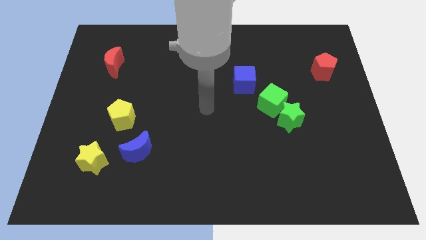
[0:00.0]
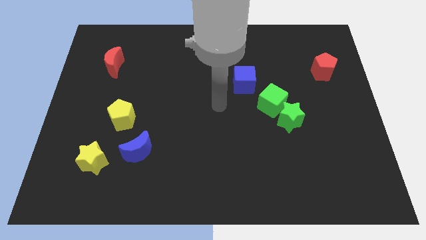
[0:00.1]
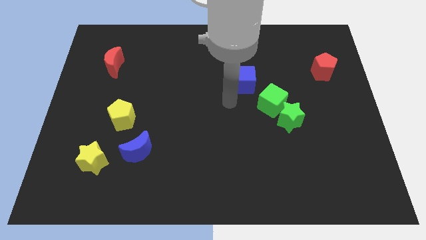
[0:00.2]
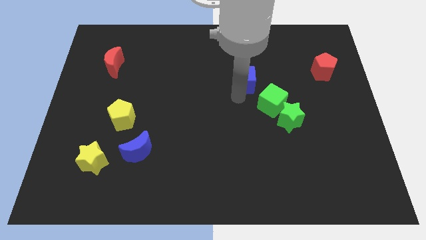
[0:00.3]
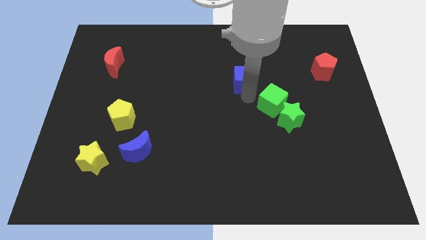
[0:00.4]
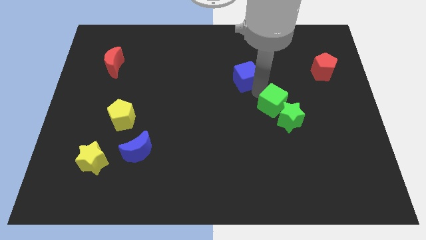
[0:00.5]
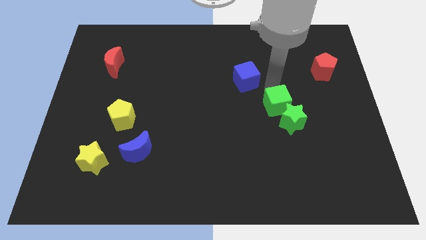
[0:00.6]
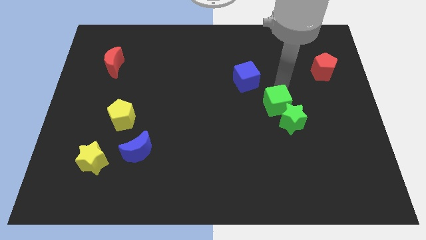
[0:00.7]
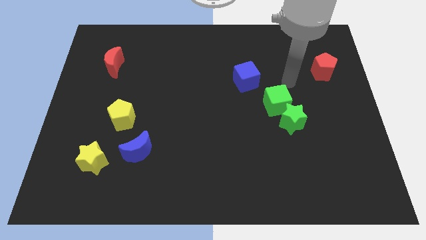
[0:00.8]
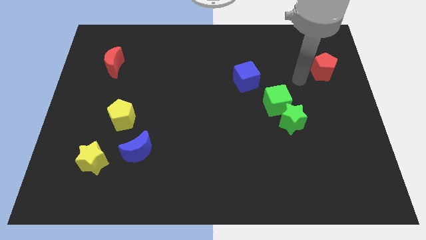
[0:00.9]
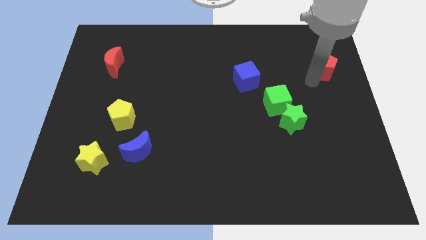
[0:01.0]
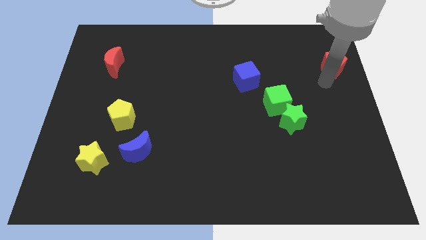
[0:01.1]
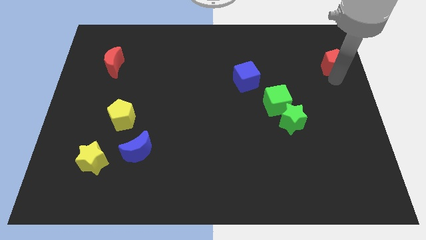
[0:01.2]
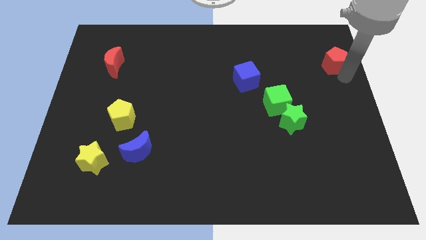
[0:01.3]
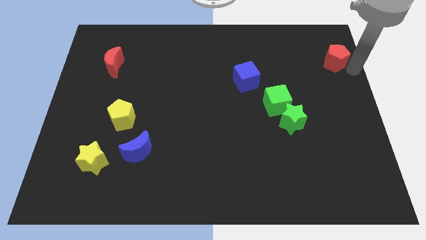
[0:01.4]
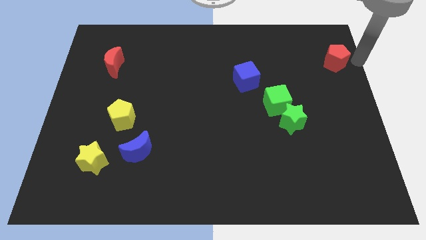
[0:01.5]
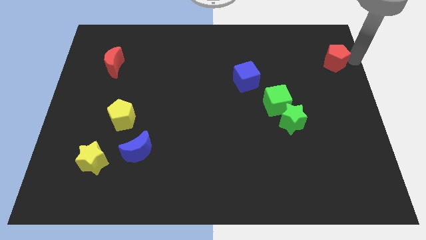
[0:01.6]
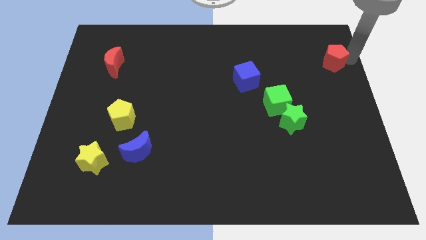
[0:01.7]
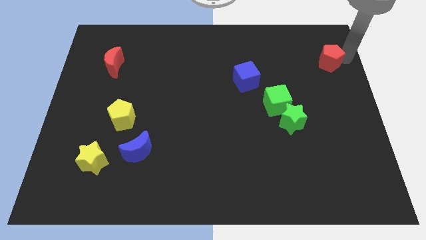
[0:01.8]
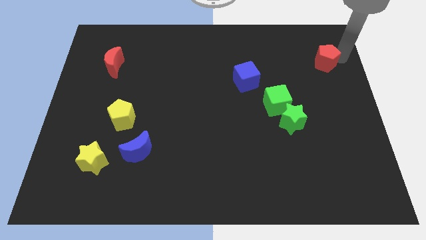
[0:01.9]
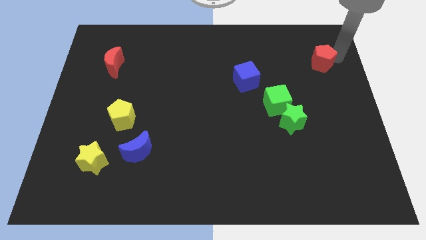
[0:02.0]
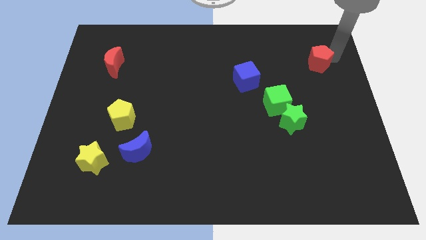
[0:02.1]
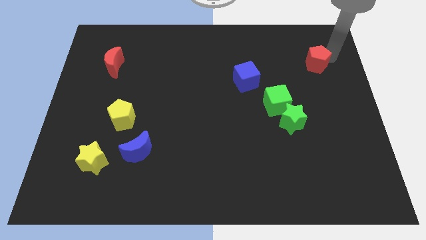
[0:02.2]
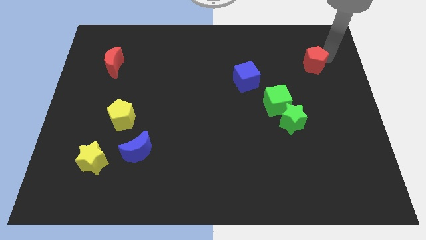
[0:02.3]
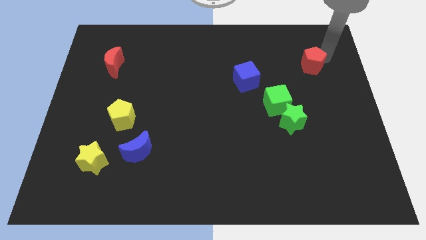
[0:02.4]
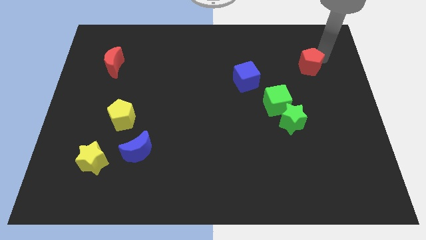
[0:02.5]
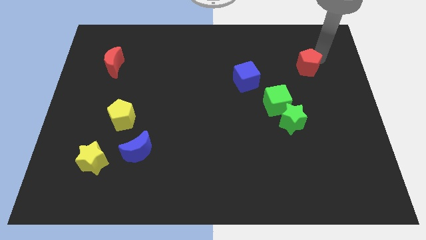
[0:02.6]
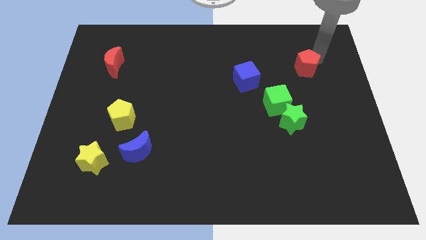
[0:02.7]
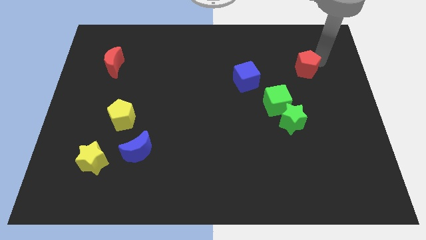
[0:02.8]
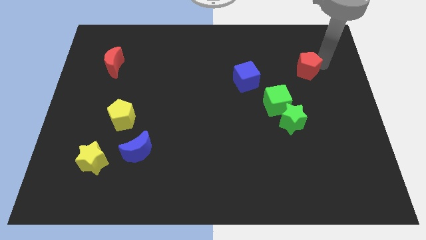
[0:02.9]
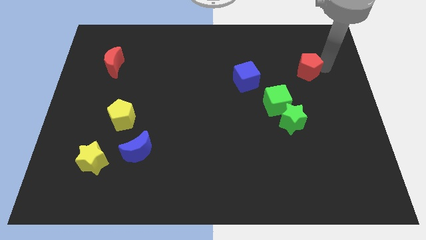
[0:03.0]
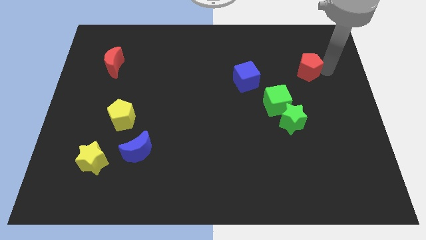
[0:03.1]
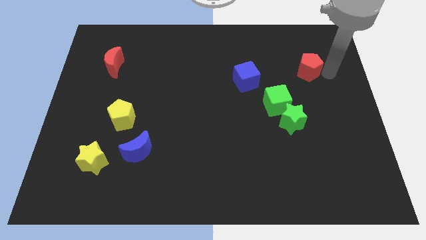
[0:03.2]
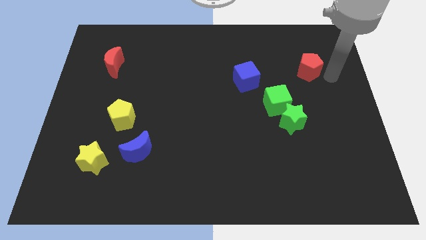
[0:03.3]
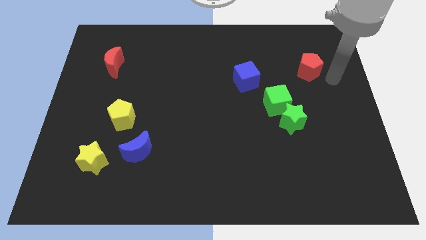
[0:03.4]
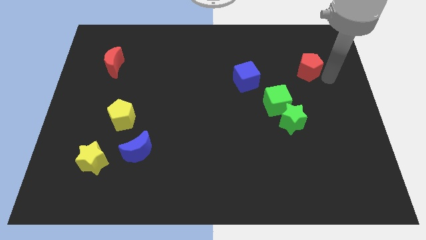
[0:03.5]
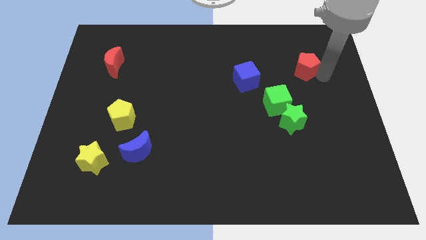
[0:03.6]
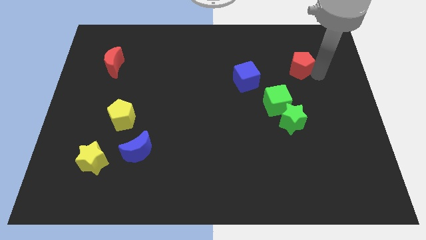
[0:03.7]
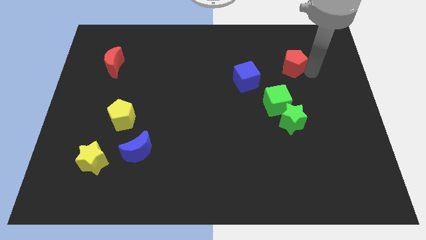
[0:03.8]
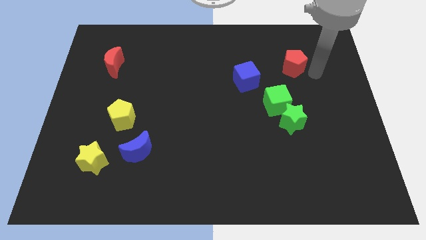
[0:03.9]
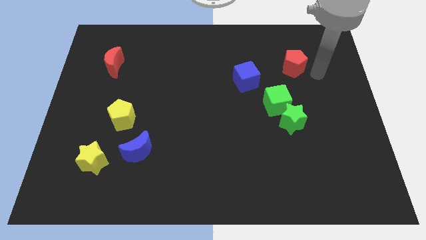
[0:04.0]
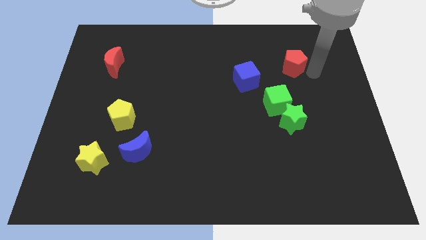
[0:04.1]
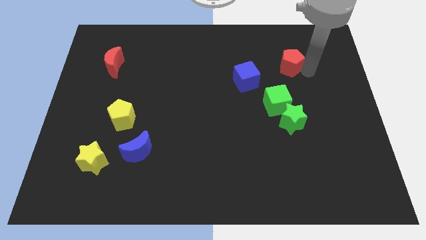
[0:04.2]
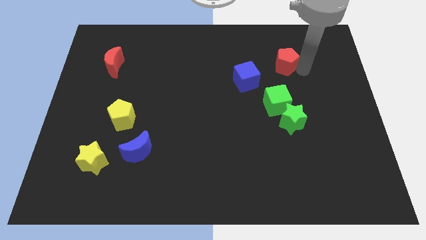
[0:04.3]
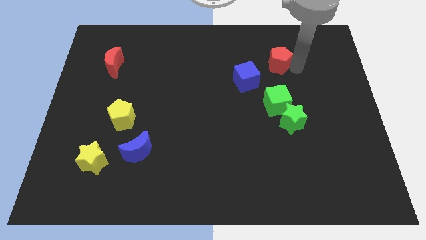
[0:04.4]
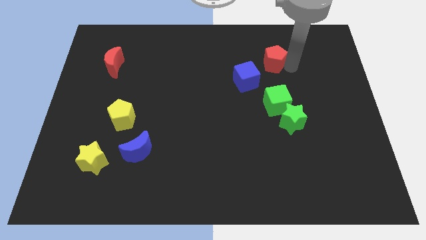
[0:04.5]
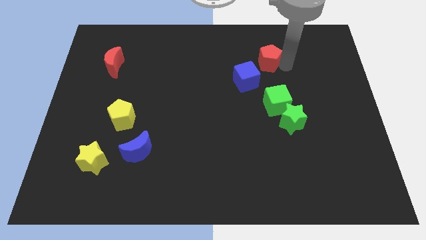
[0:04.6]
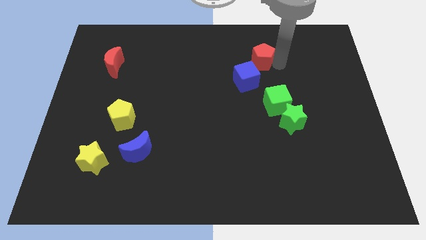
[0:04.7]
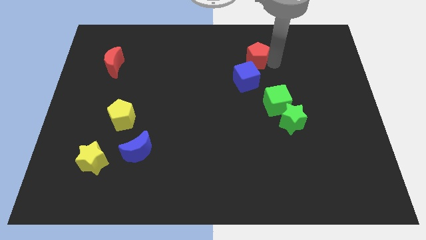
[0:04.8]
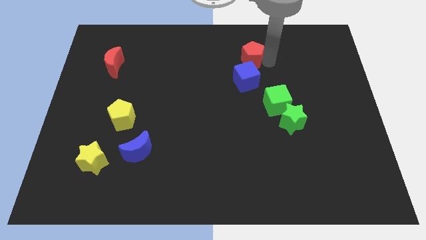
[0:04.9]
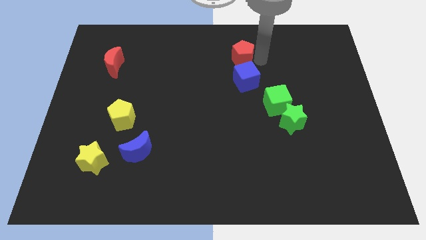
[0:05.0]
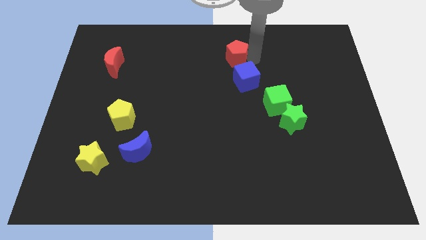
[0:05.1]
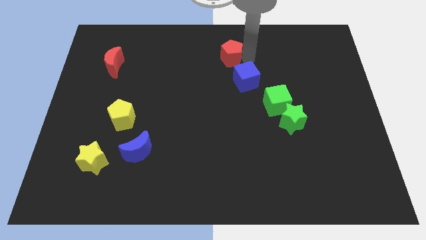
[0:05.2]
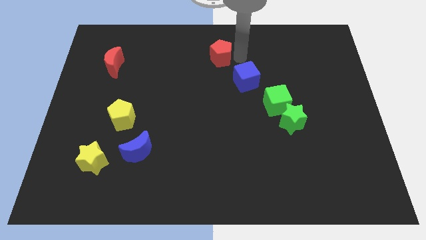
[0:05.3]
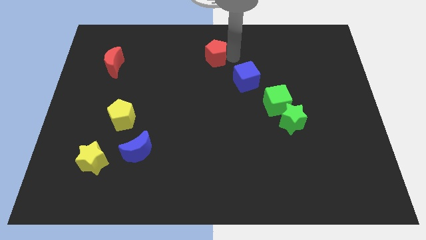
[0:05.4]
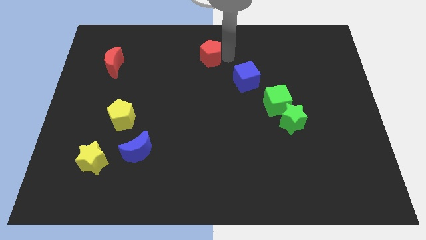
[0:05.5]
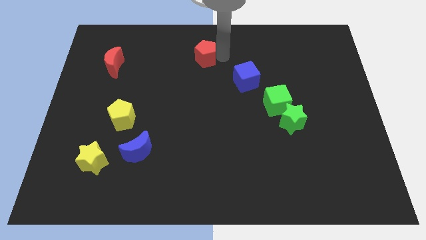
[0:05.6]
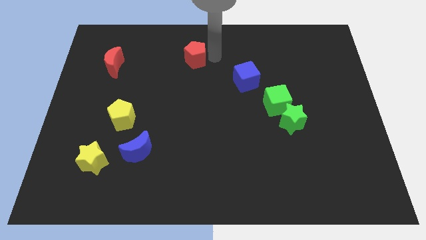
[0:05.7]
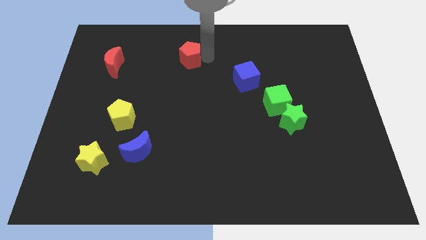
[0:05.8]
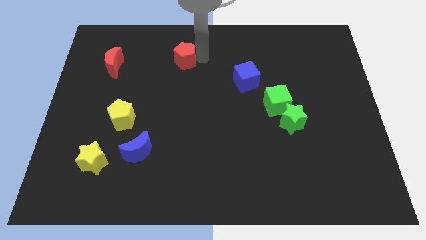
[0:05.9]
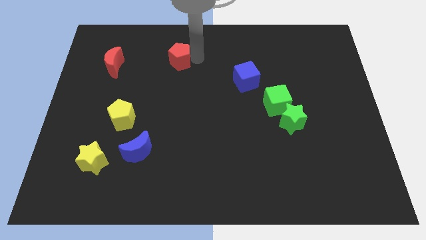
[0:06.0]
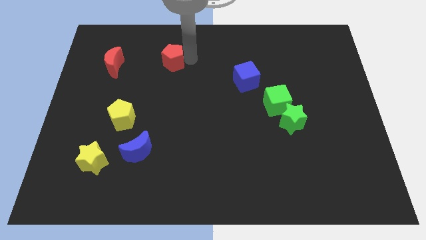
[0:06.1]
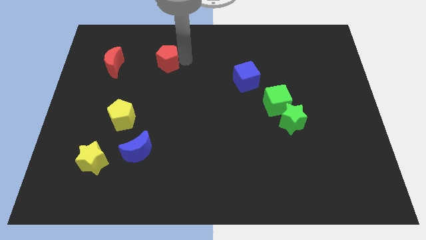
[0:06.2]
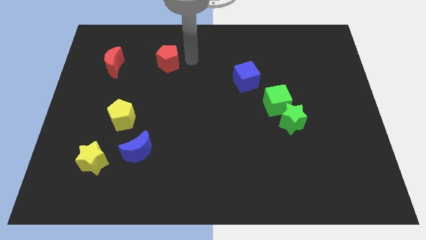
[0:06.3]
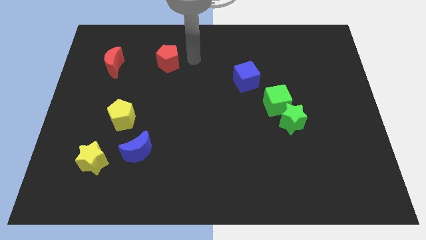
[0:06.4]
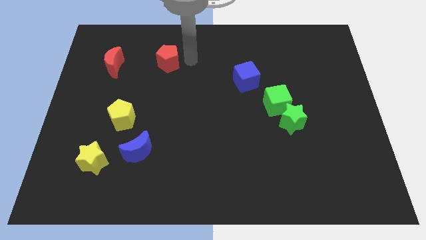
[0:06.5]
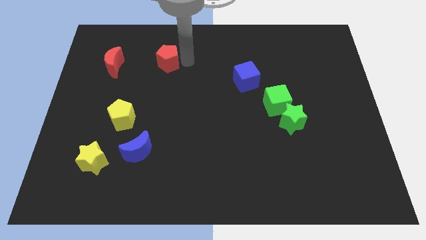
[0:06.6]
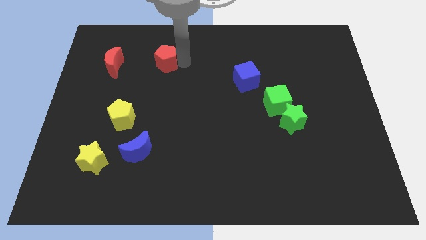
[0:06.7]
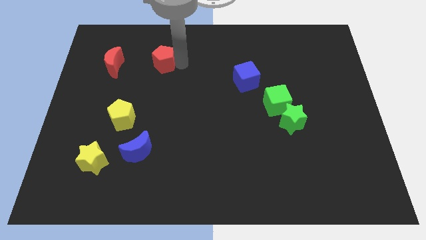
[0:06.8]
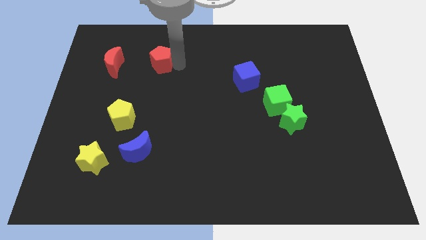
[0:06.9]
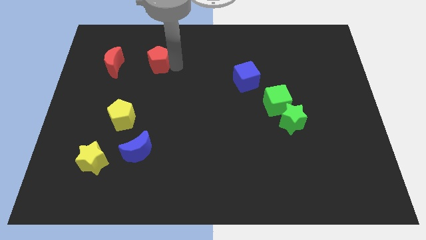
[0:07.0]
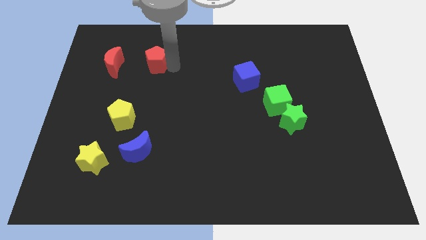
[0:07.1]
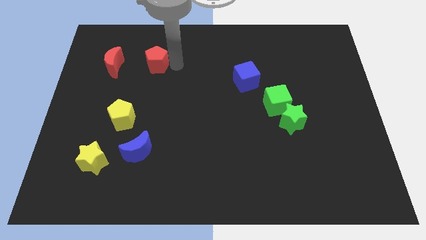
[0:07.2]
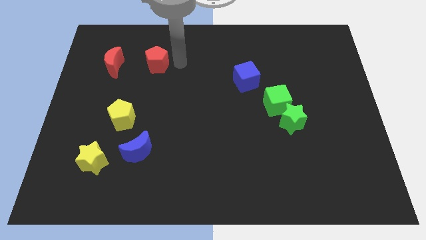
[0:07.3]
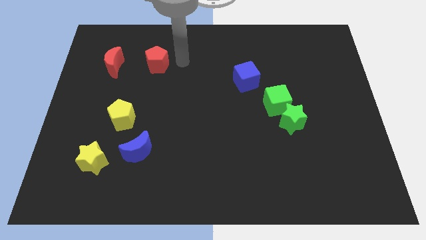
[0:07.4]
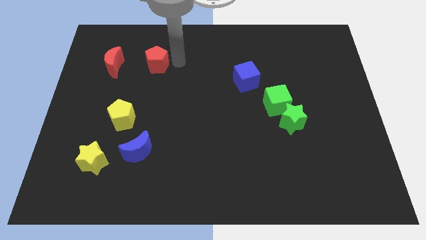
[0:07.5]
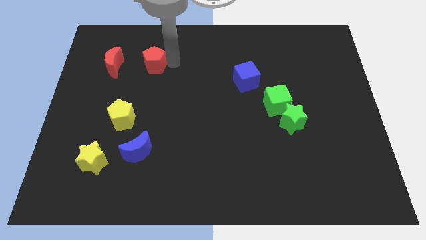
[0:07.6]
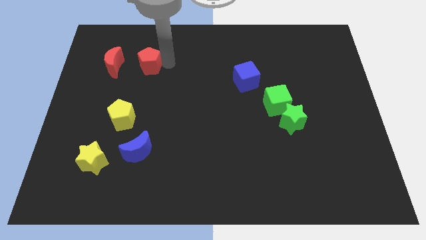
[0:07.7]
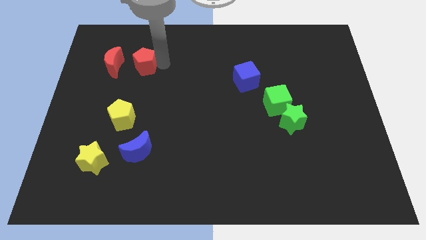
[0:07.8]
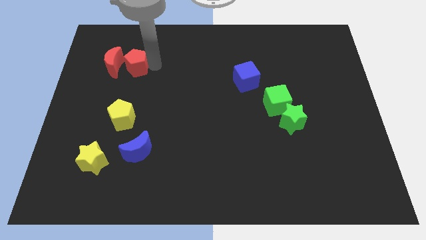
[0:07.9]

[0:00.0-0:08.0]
slide the red pentagon next to the red moon
